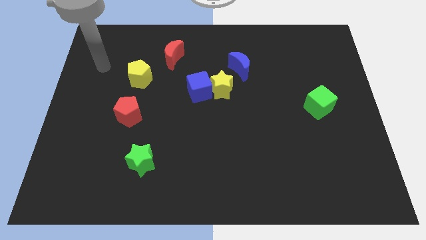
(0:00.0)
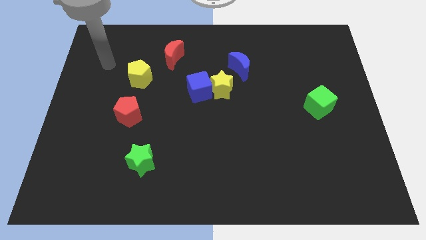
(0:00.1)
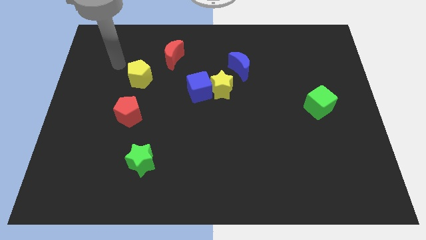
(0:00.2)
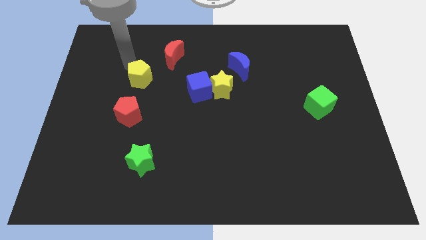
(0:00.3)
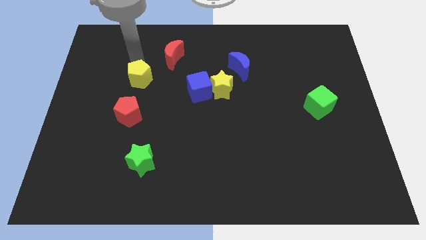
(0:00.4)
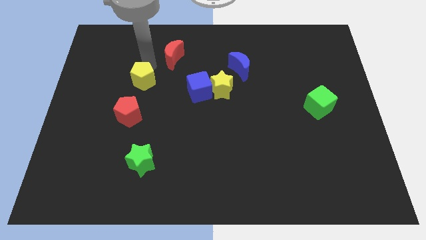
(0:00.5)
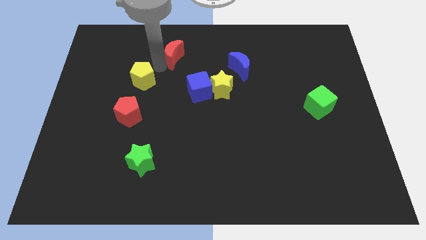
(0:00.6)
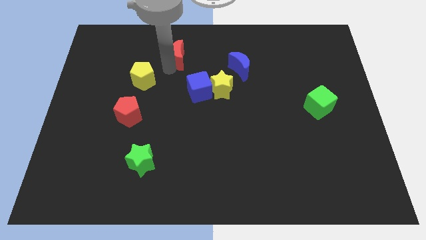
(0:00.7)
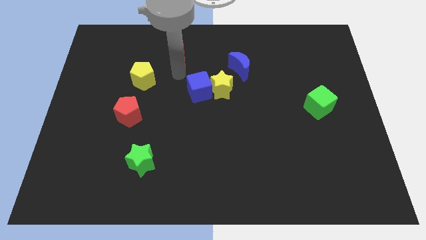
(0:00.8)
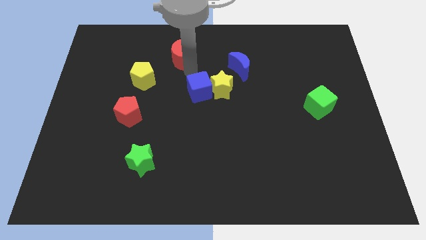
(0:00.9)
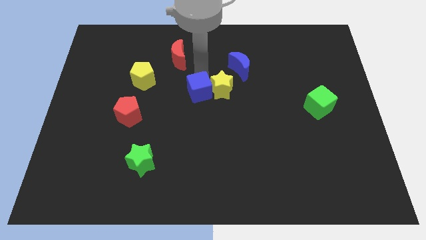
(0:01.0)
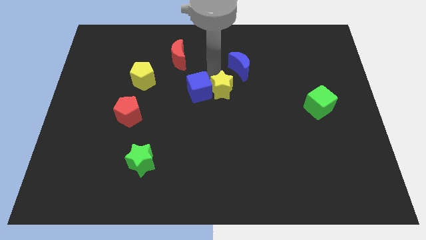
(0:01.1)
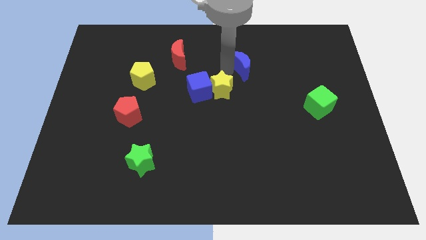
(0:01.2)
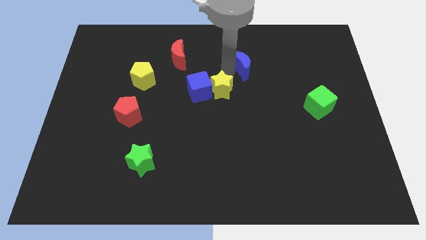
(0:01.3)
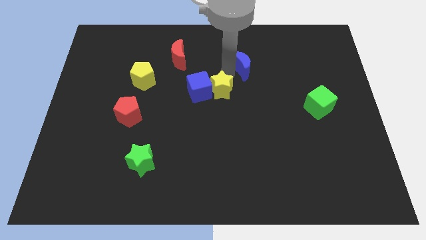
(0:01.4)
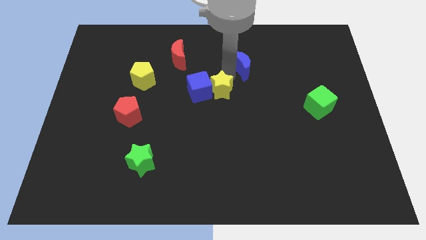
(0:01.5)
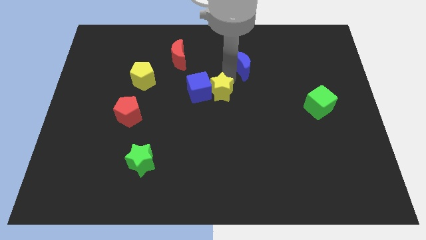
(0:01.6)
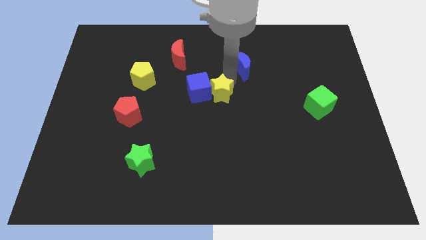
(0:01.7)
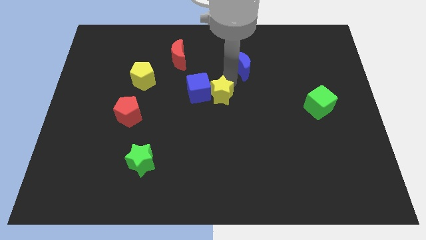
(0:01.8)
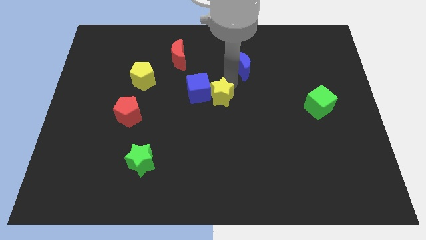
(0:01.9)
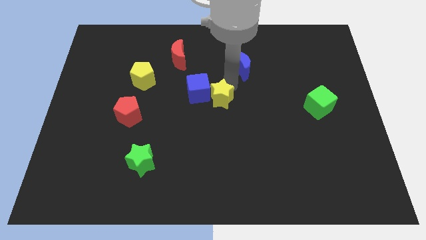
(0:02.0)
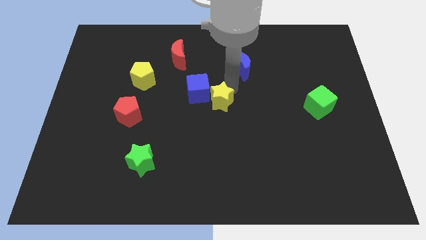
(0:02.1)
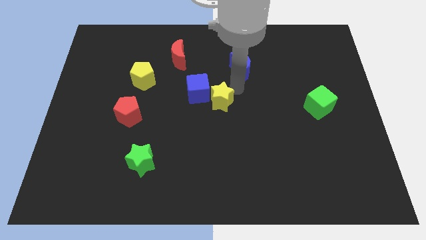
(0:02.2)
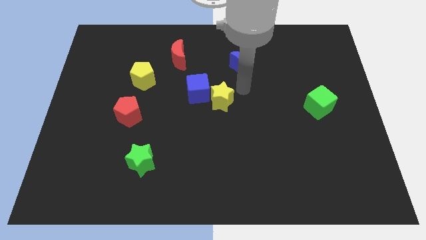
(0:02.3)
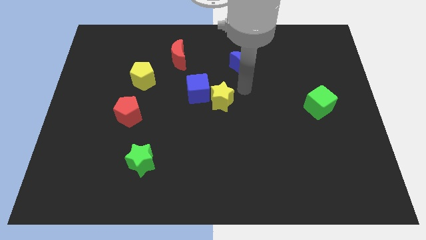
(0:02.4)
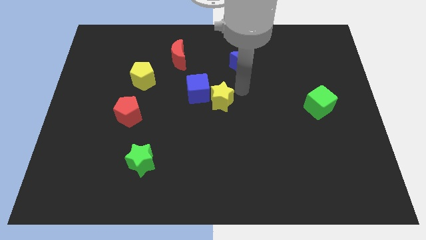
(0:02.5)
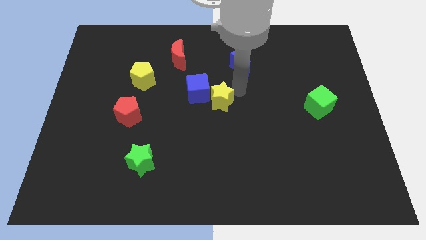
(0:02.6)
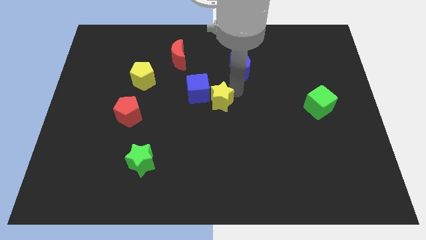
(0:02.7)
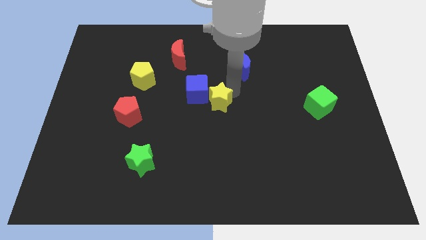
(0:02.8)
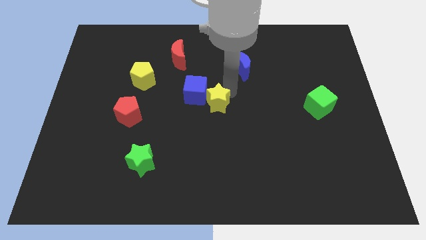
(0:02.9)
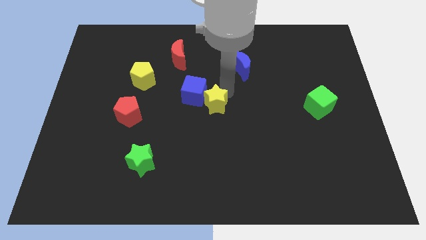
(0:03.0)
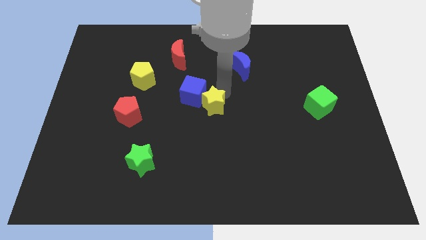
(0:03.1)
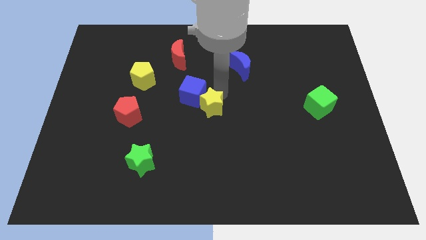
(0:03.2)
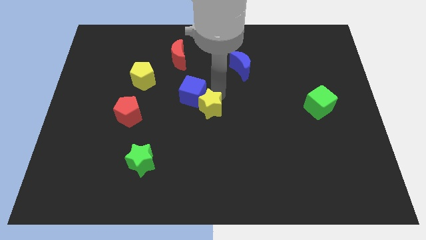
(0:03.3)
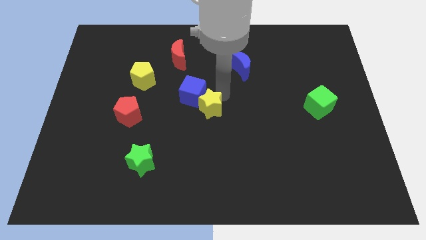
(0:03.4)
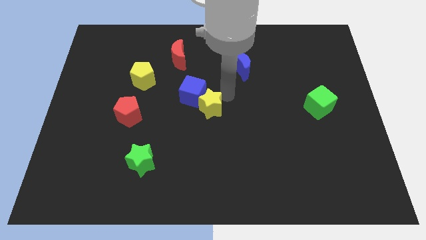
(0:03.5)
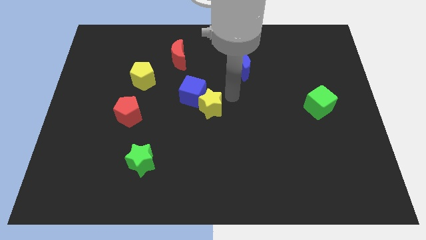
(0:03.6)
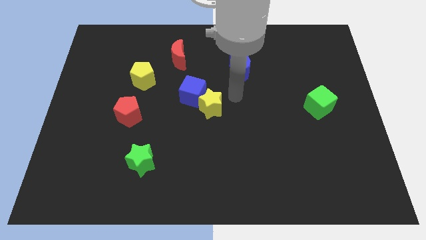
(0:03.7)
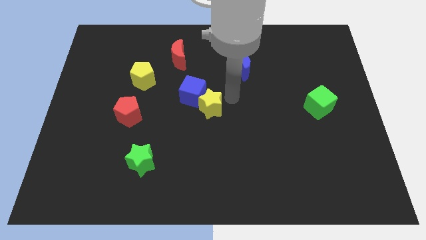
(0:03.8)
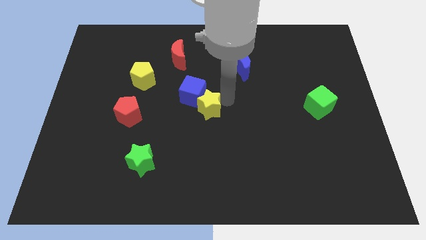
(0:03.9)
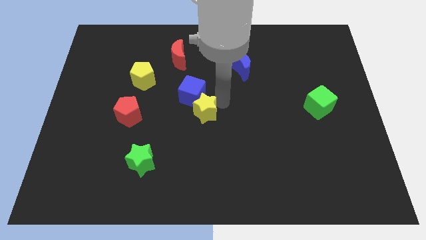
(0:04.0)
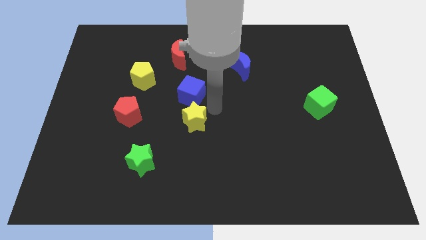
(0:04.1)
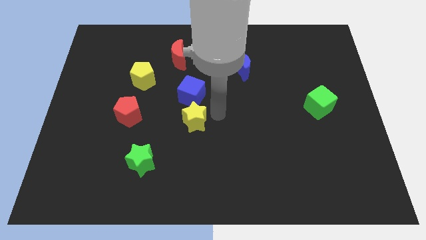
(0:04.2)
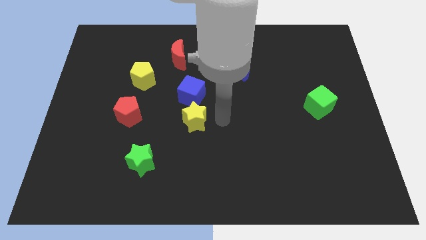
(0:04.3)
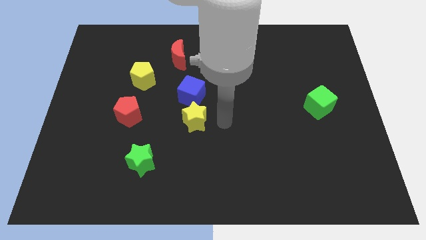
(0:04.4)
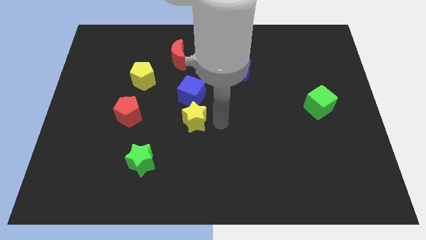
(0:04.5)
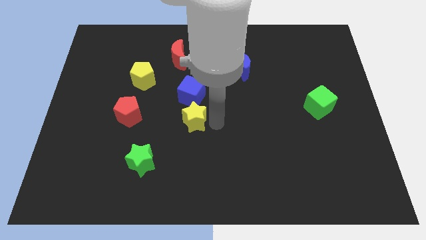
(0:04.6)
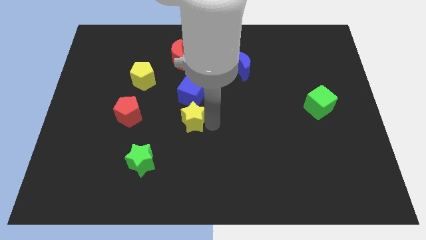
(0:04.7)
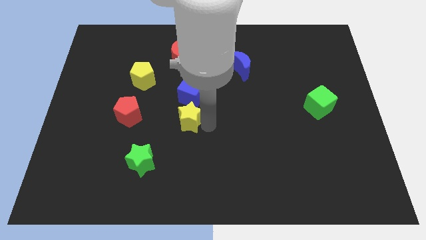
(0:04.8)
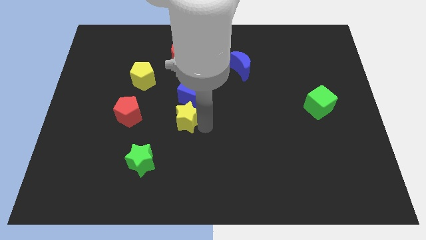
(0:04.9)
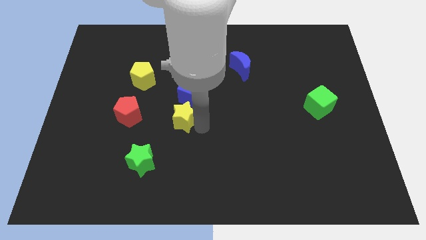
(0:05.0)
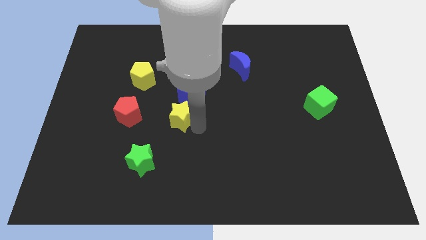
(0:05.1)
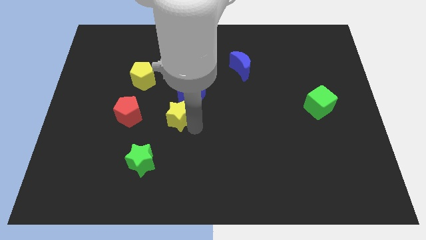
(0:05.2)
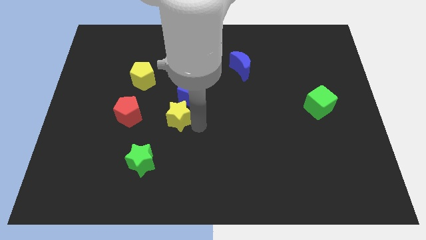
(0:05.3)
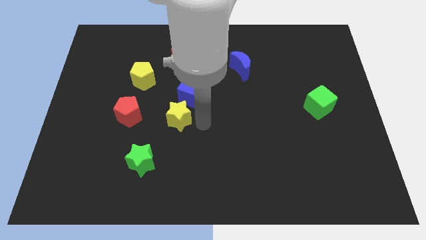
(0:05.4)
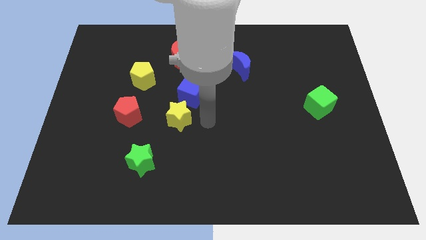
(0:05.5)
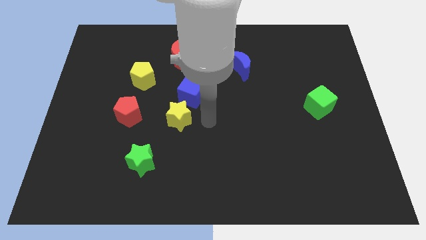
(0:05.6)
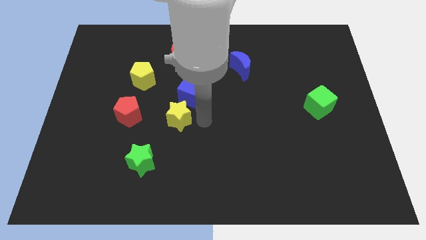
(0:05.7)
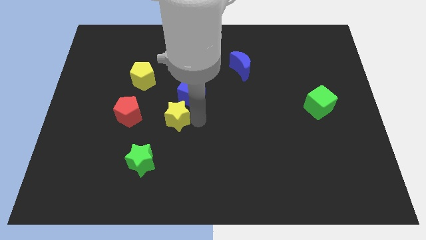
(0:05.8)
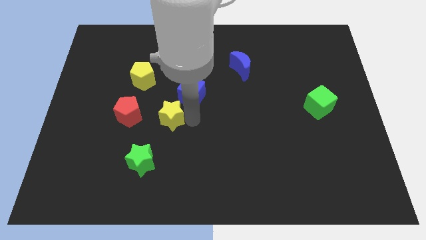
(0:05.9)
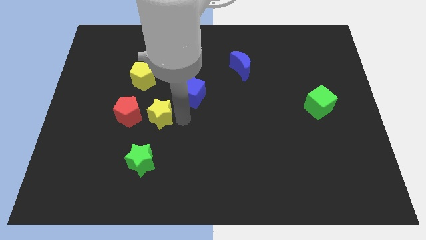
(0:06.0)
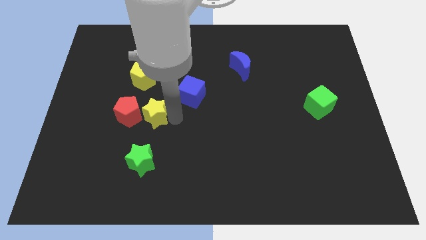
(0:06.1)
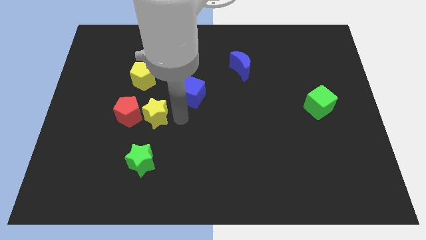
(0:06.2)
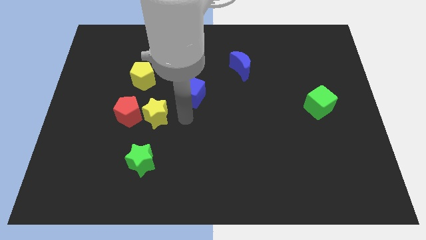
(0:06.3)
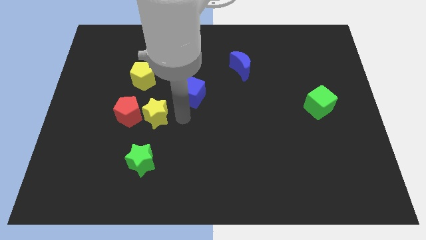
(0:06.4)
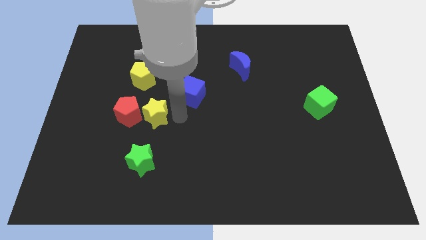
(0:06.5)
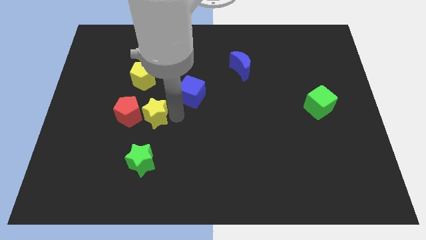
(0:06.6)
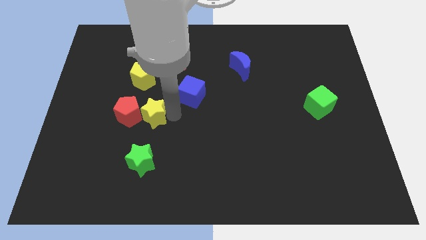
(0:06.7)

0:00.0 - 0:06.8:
push the yellow star next to the red pentagon

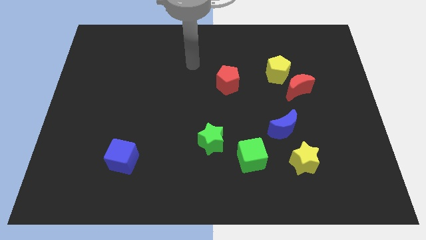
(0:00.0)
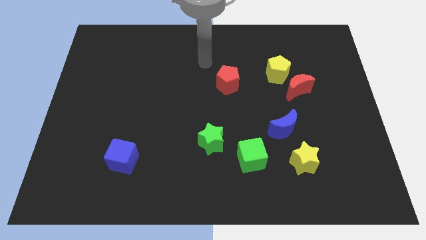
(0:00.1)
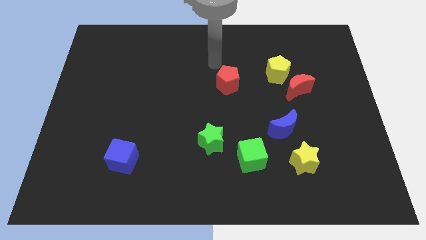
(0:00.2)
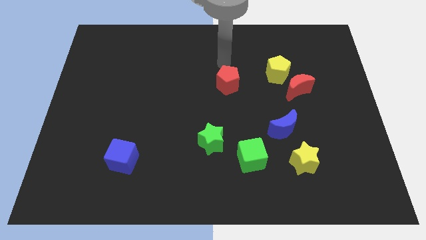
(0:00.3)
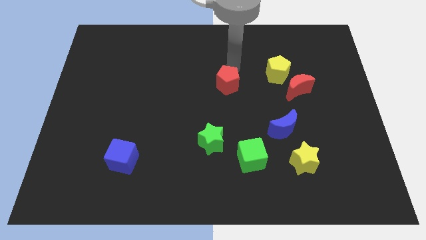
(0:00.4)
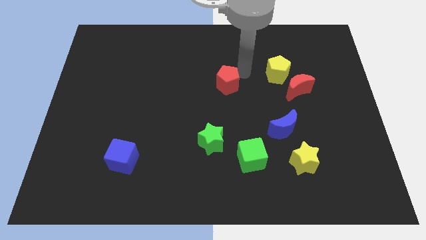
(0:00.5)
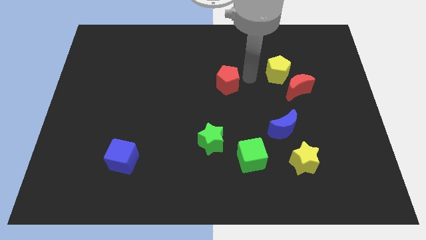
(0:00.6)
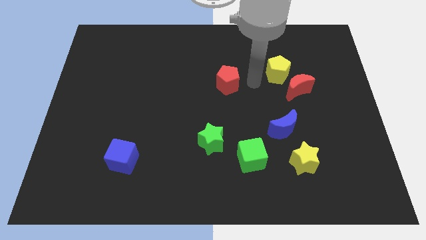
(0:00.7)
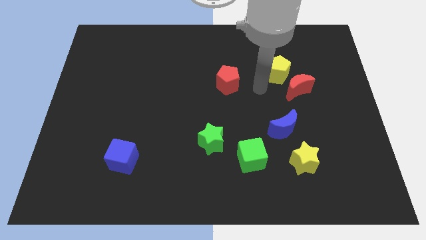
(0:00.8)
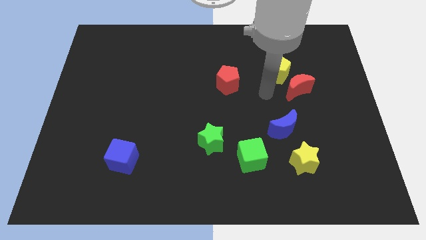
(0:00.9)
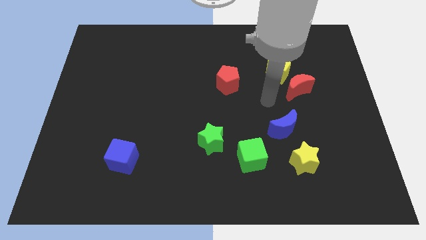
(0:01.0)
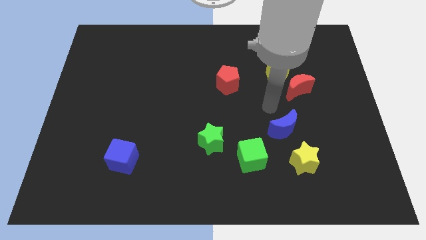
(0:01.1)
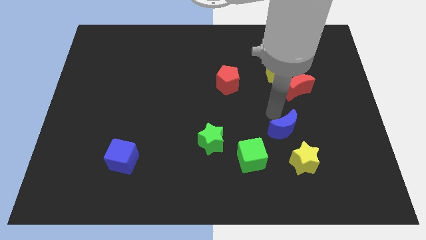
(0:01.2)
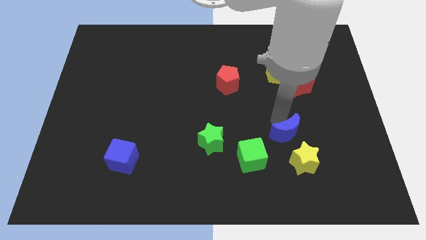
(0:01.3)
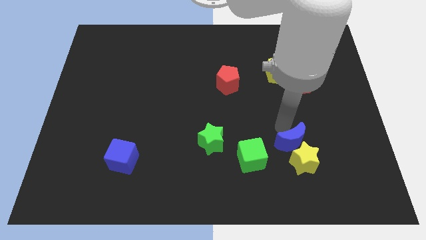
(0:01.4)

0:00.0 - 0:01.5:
slide the blue moon close to the yellow star
